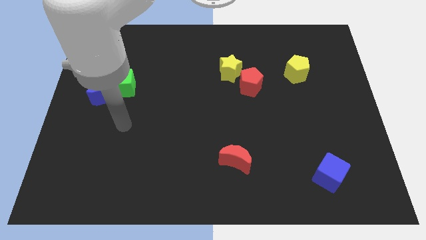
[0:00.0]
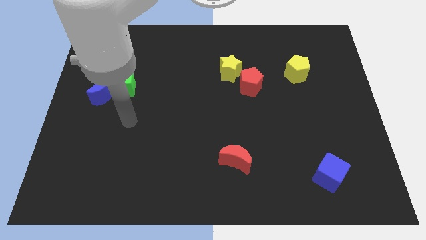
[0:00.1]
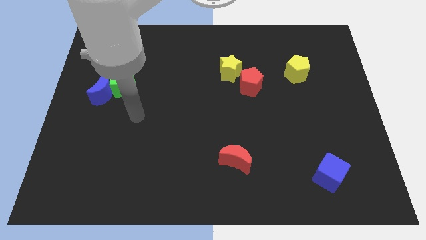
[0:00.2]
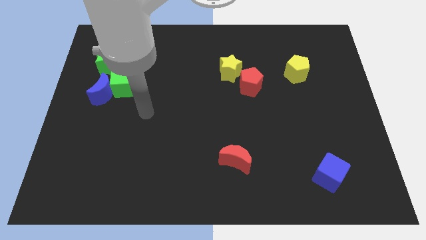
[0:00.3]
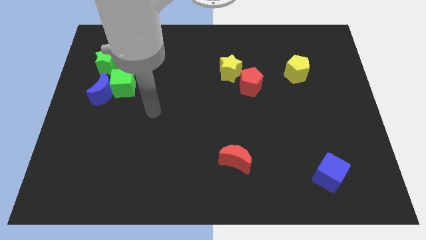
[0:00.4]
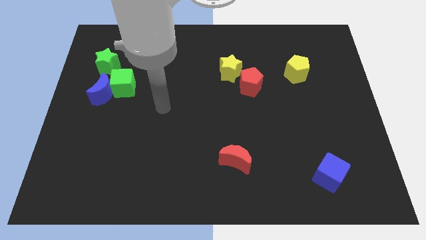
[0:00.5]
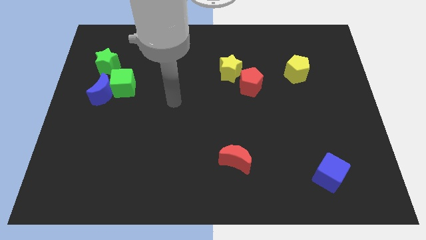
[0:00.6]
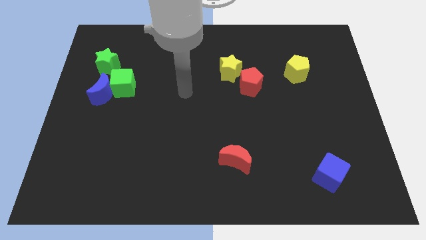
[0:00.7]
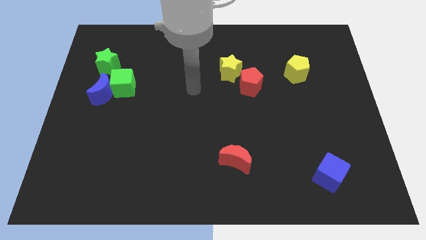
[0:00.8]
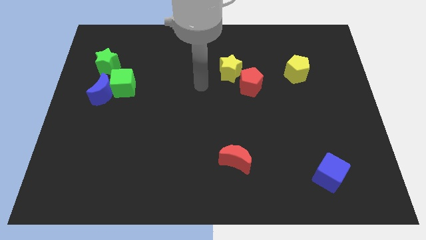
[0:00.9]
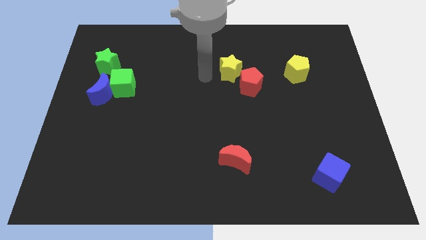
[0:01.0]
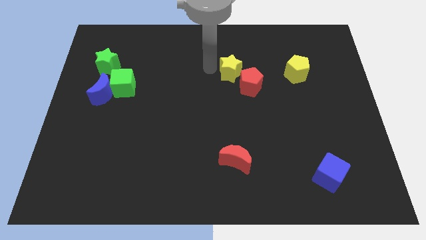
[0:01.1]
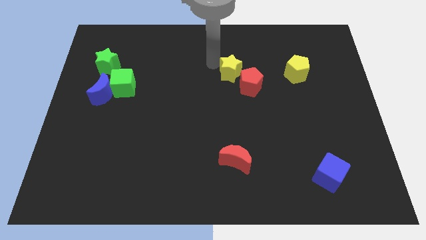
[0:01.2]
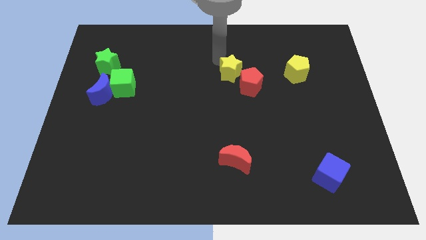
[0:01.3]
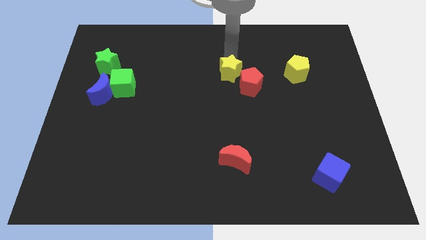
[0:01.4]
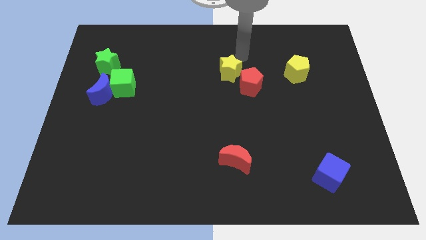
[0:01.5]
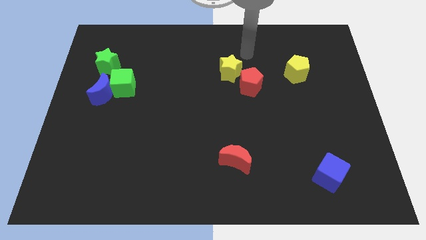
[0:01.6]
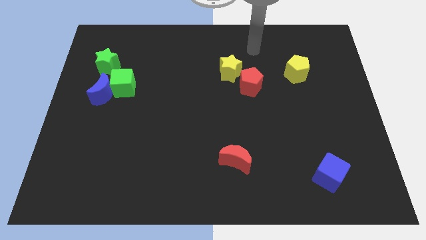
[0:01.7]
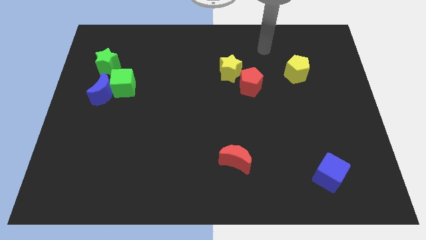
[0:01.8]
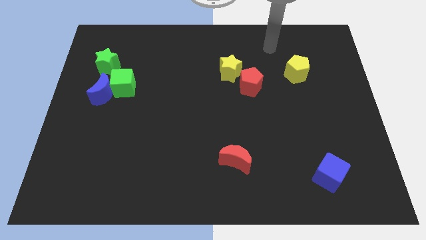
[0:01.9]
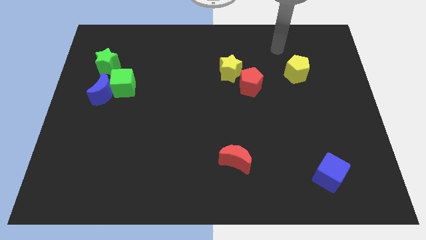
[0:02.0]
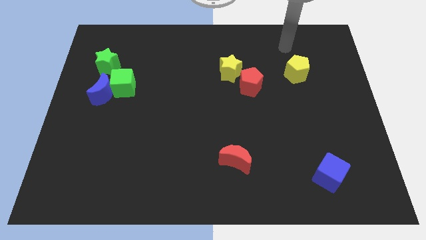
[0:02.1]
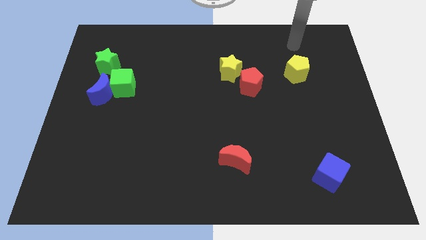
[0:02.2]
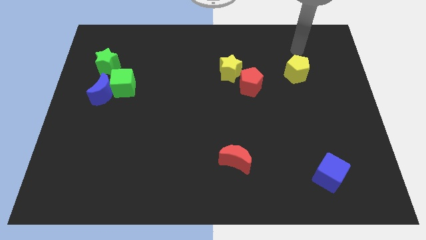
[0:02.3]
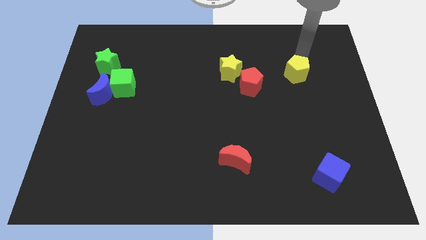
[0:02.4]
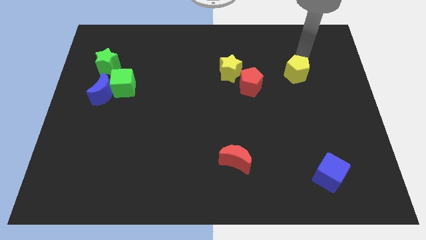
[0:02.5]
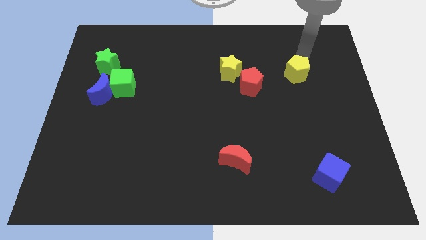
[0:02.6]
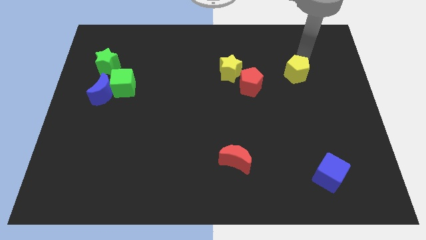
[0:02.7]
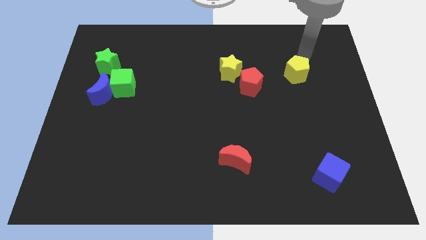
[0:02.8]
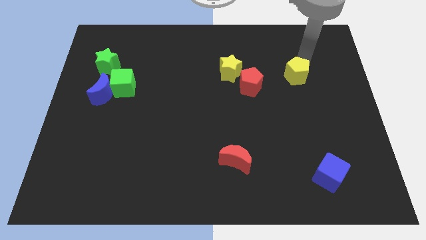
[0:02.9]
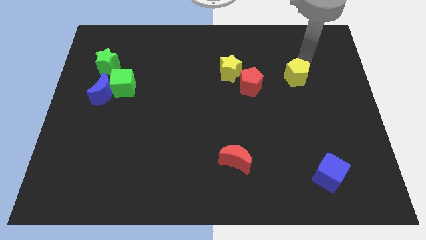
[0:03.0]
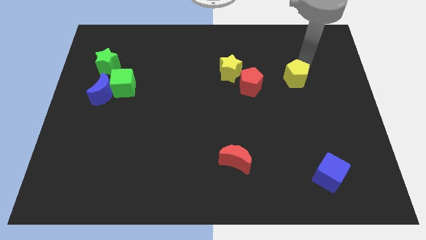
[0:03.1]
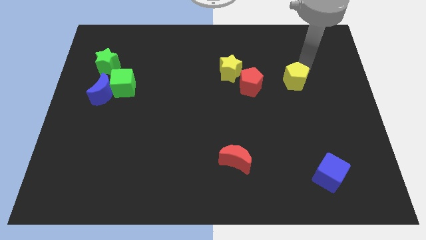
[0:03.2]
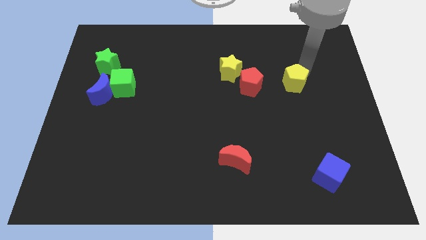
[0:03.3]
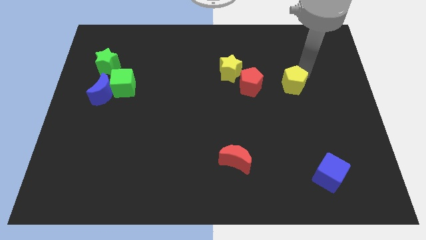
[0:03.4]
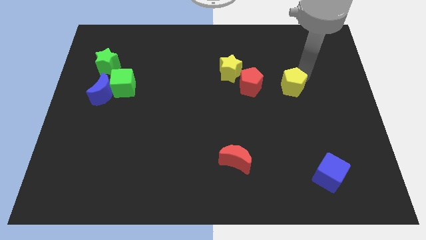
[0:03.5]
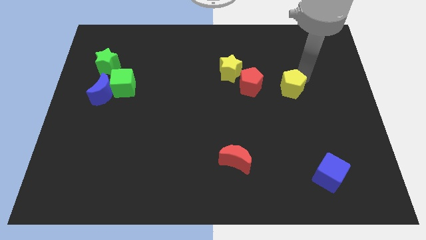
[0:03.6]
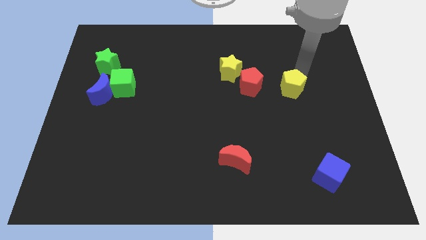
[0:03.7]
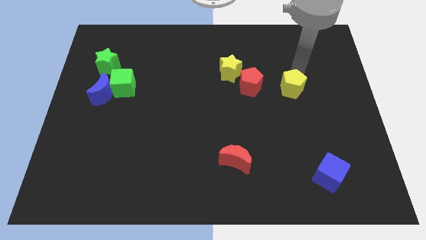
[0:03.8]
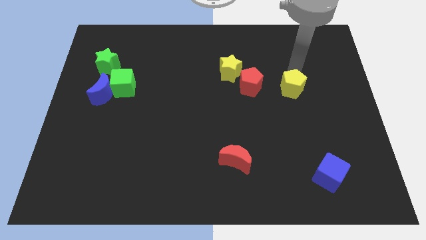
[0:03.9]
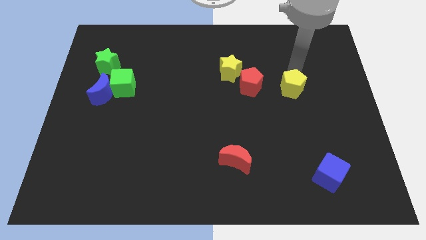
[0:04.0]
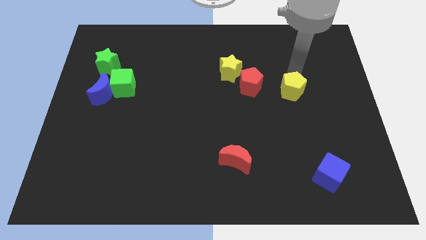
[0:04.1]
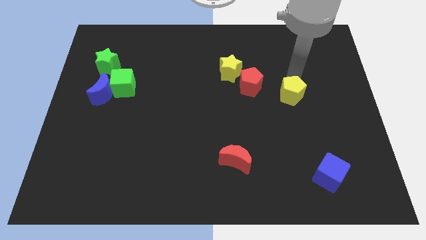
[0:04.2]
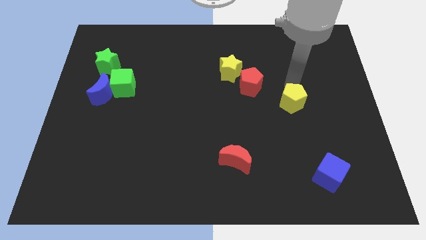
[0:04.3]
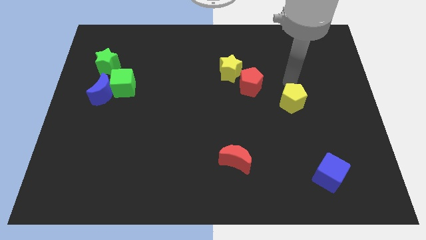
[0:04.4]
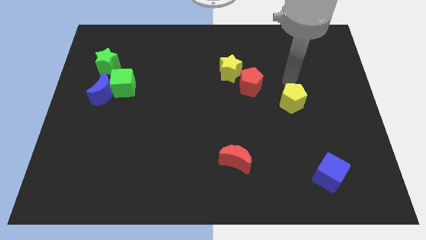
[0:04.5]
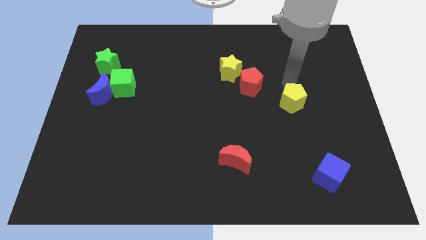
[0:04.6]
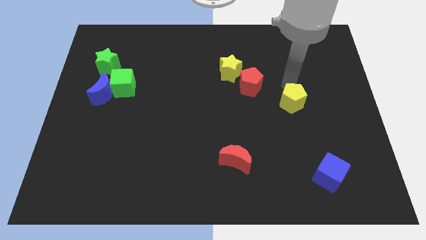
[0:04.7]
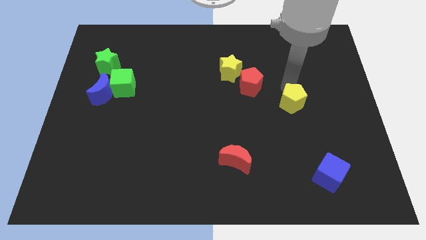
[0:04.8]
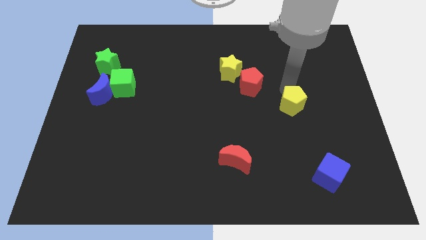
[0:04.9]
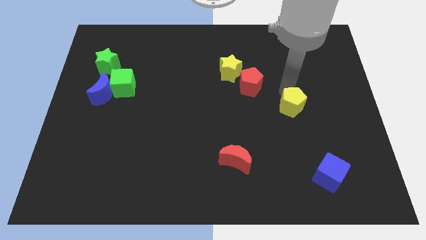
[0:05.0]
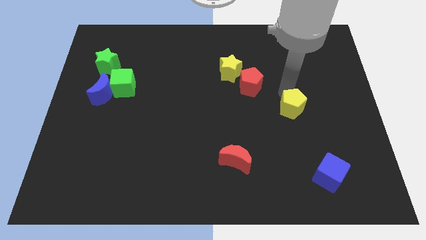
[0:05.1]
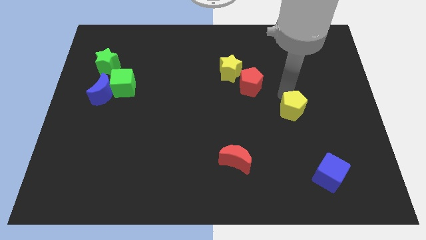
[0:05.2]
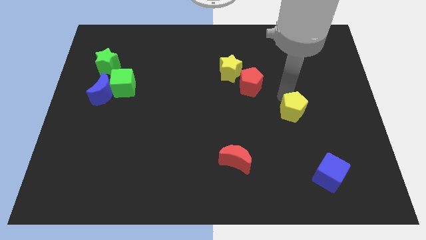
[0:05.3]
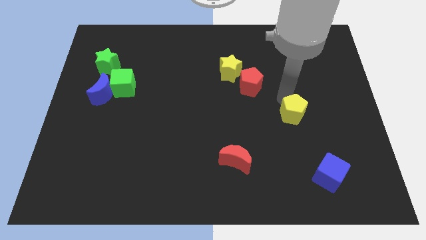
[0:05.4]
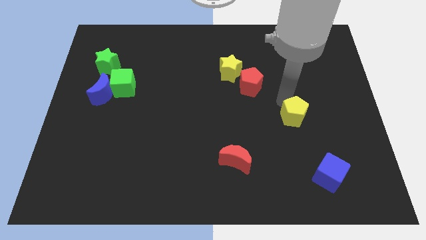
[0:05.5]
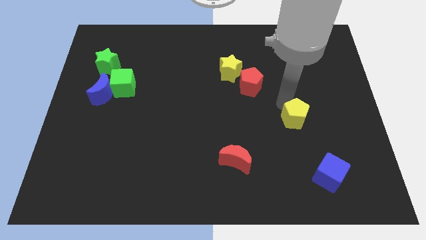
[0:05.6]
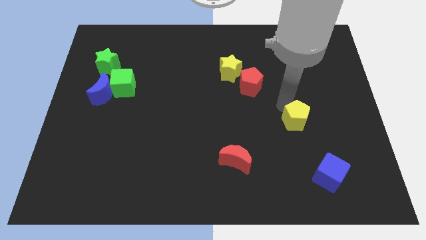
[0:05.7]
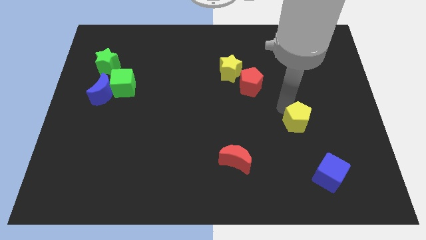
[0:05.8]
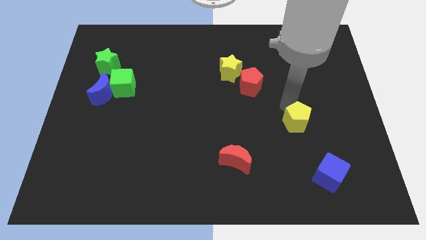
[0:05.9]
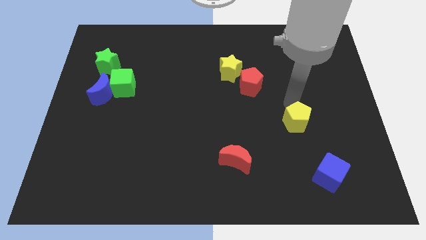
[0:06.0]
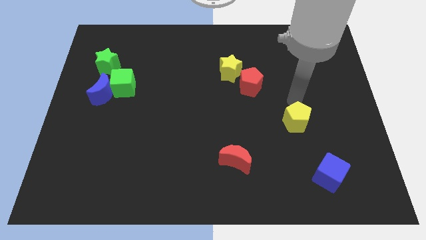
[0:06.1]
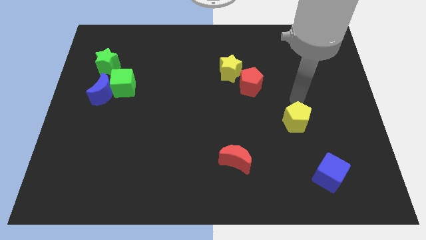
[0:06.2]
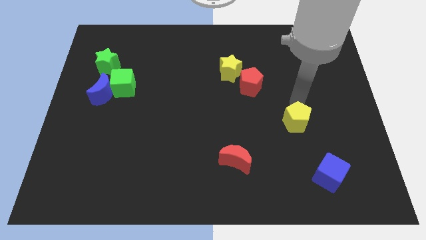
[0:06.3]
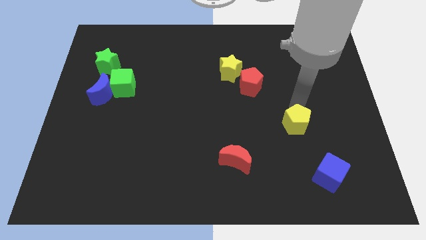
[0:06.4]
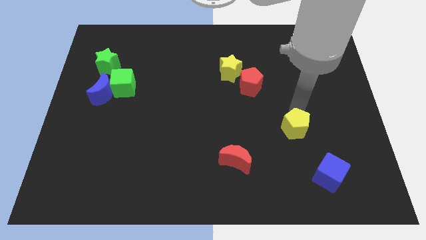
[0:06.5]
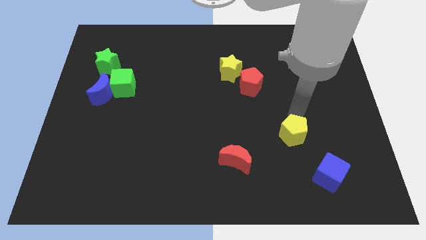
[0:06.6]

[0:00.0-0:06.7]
put the yellow pentagon diagonally up and to the left of the blue cube

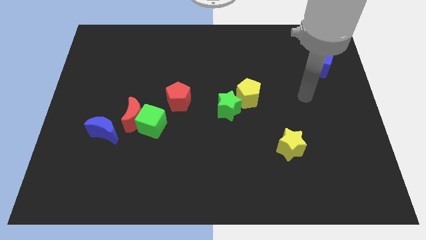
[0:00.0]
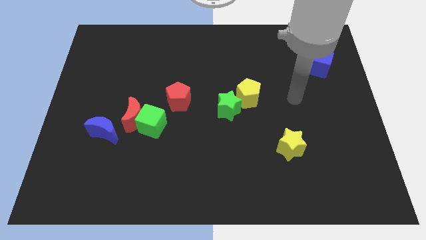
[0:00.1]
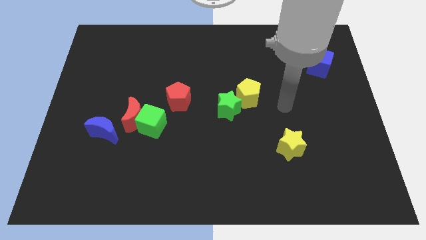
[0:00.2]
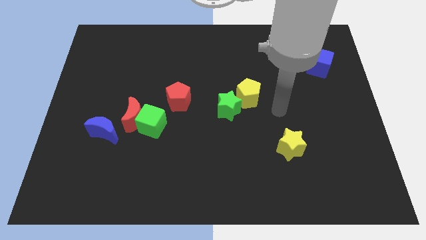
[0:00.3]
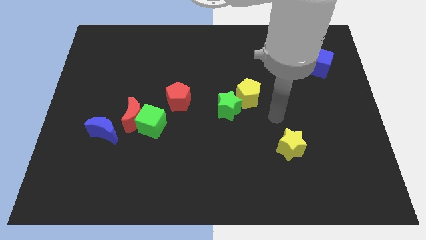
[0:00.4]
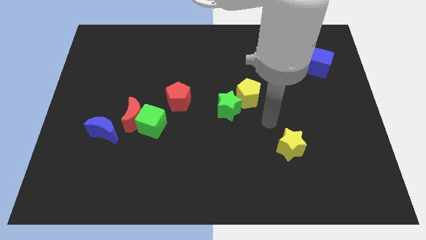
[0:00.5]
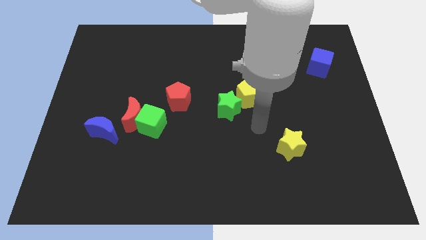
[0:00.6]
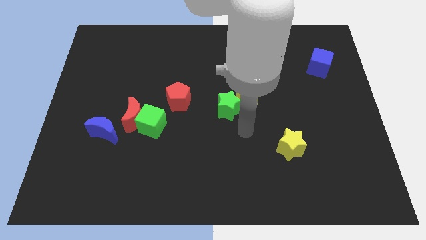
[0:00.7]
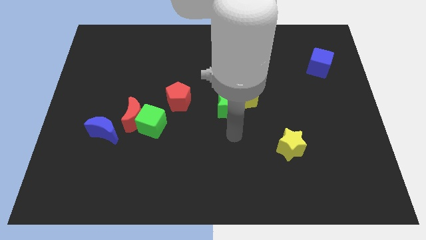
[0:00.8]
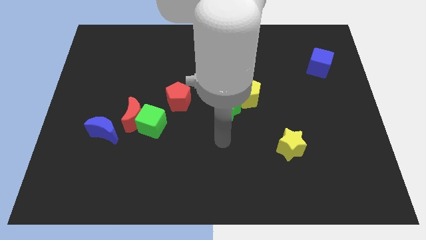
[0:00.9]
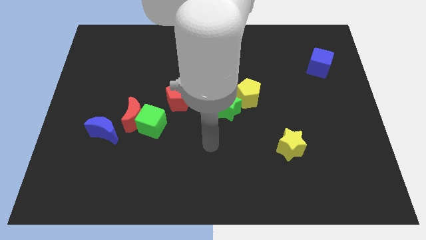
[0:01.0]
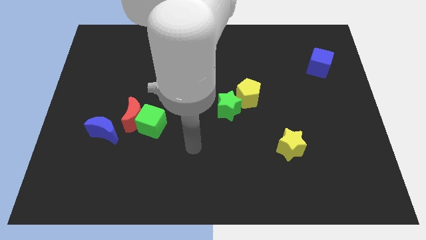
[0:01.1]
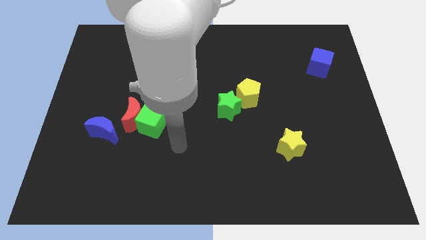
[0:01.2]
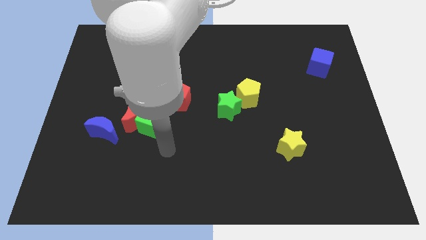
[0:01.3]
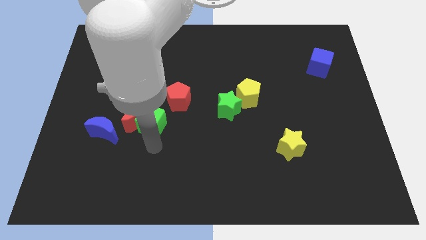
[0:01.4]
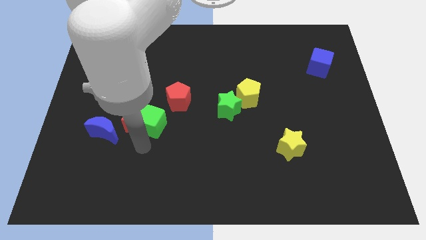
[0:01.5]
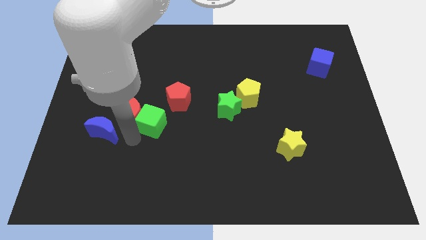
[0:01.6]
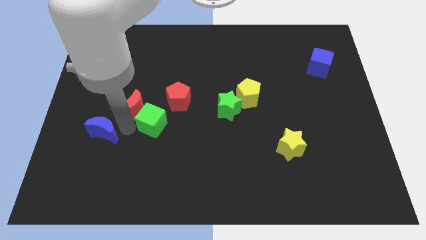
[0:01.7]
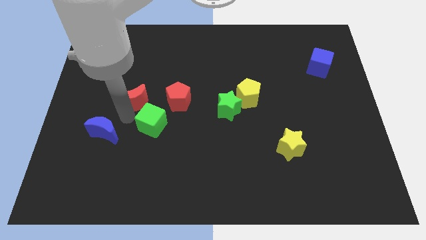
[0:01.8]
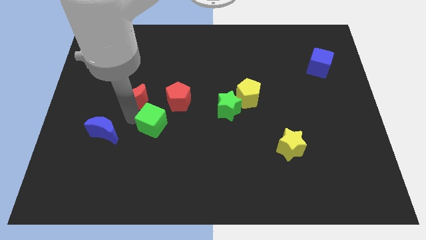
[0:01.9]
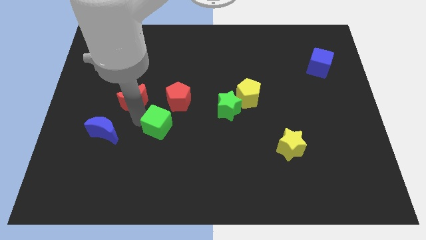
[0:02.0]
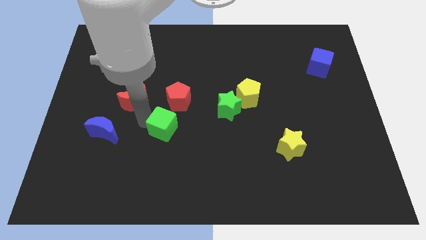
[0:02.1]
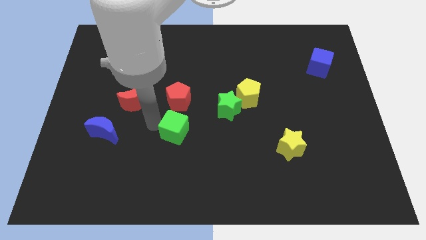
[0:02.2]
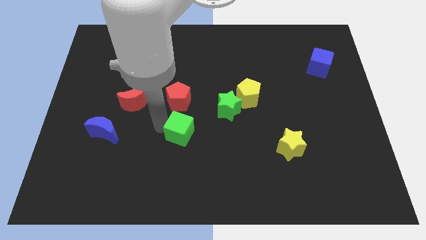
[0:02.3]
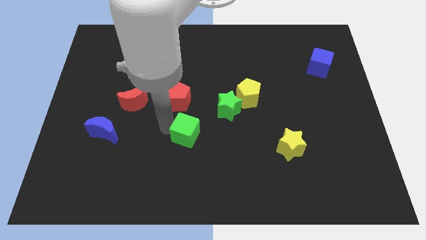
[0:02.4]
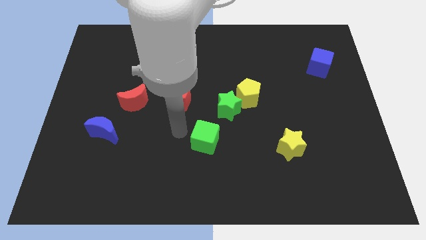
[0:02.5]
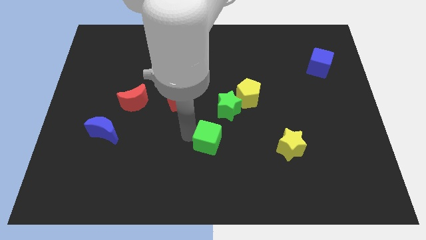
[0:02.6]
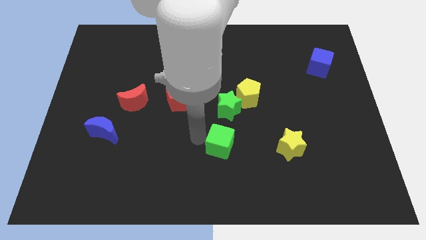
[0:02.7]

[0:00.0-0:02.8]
slide the green cube to the left side of the yellow star
